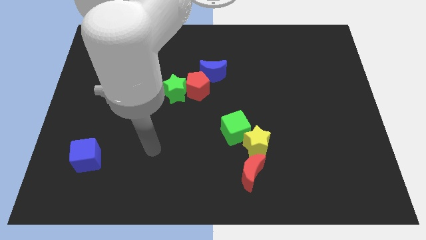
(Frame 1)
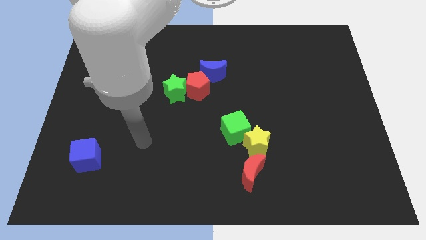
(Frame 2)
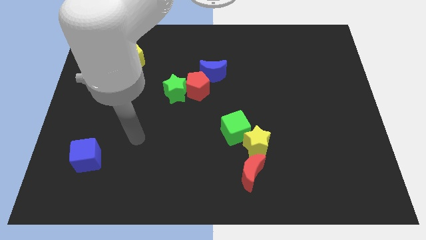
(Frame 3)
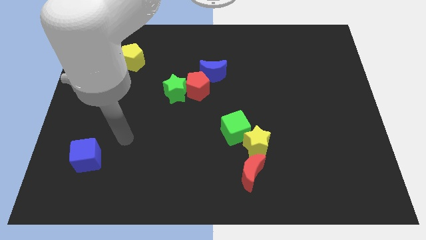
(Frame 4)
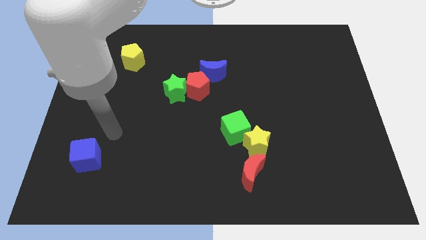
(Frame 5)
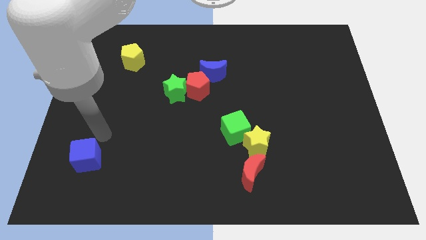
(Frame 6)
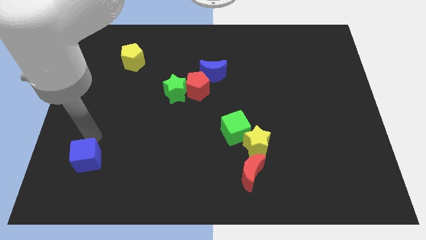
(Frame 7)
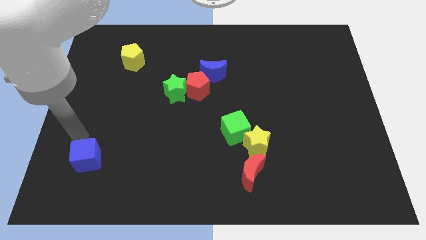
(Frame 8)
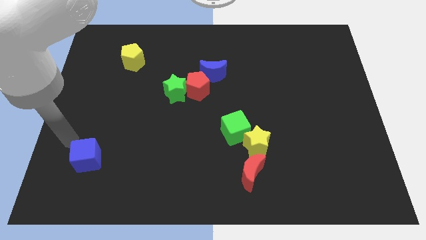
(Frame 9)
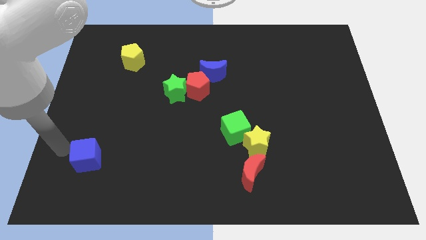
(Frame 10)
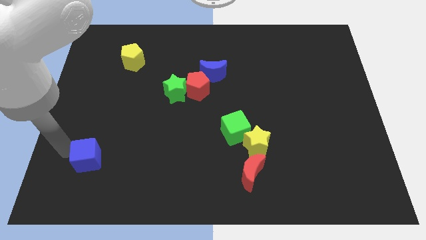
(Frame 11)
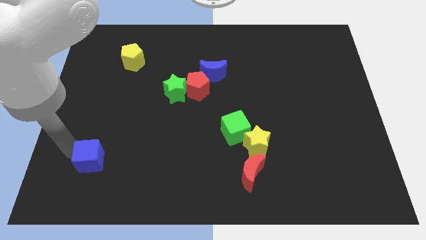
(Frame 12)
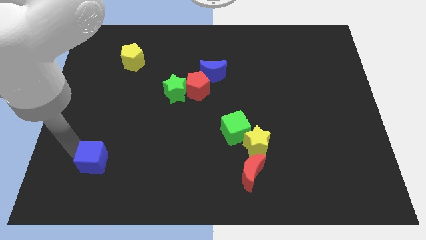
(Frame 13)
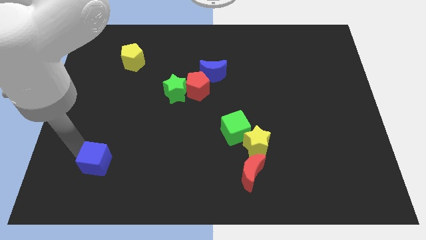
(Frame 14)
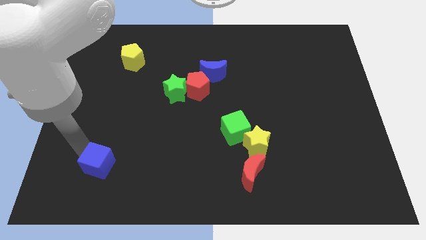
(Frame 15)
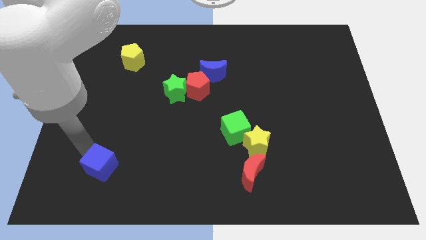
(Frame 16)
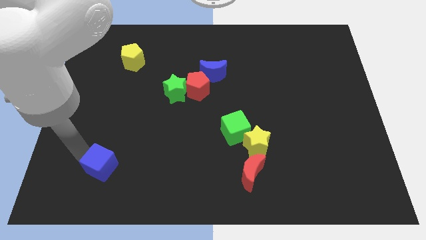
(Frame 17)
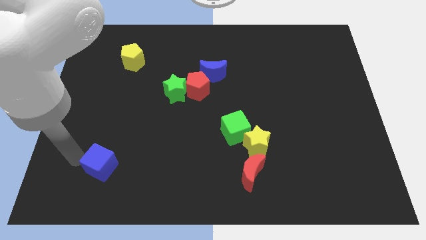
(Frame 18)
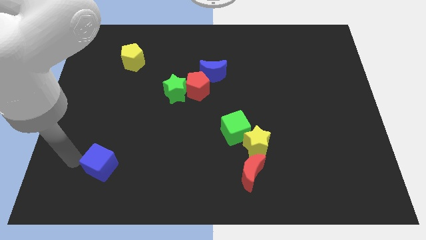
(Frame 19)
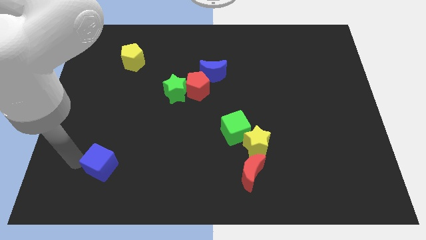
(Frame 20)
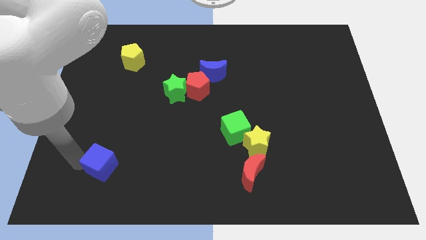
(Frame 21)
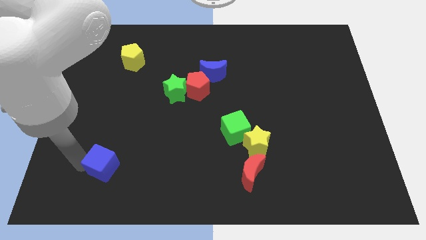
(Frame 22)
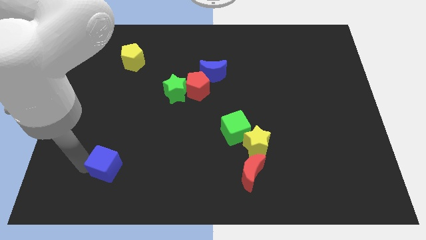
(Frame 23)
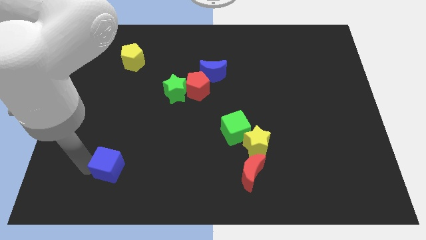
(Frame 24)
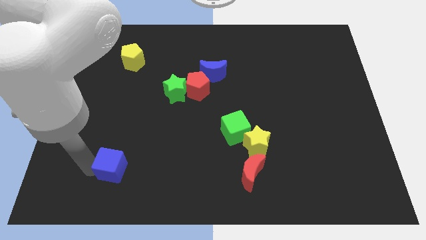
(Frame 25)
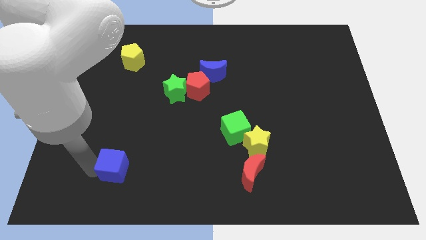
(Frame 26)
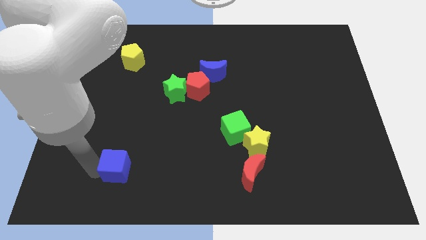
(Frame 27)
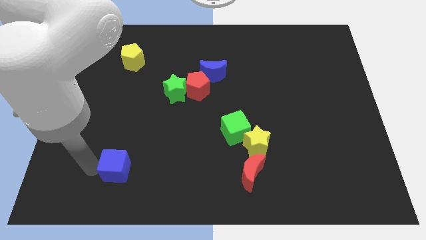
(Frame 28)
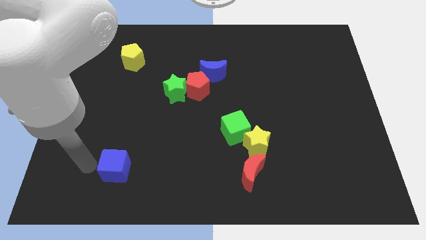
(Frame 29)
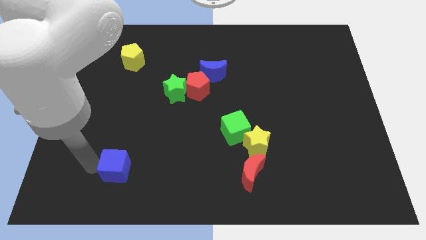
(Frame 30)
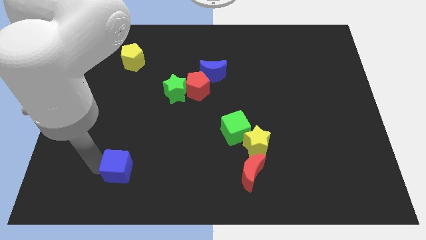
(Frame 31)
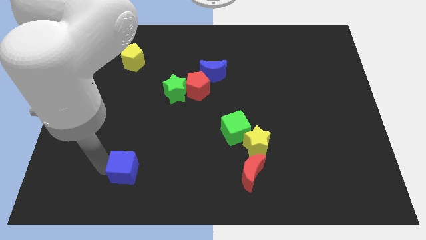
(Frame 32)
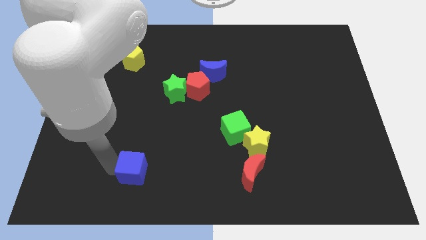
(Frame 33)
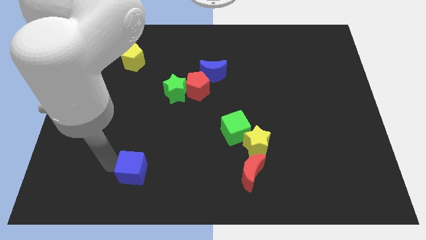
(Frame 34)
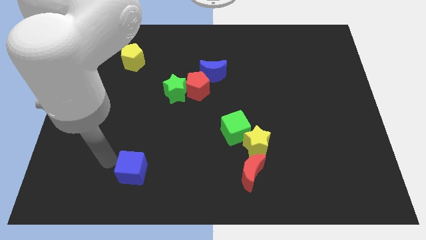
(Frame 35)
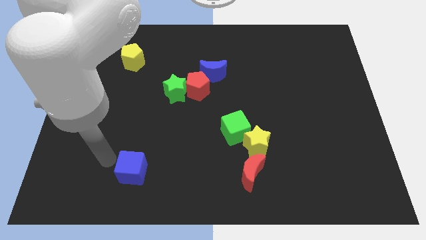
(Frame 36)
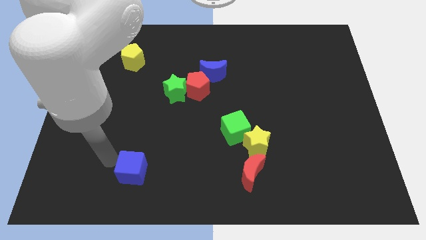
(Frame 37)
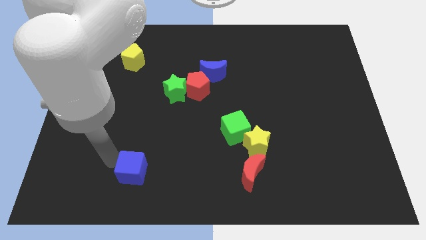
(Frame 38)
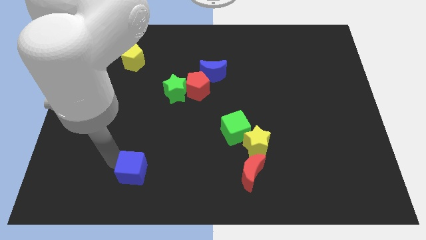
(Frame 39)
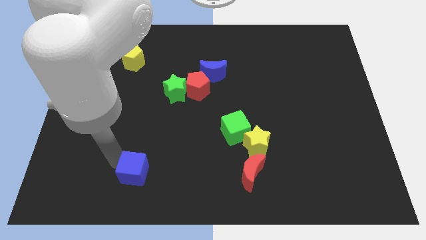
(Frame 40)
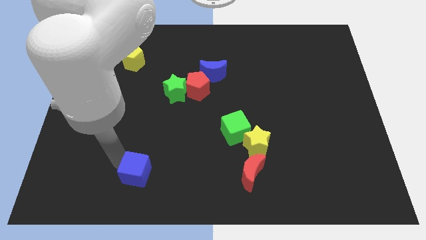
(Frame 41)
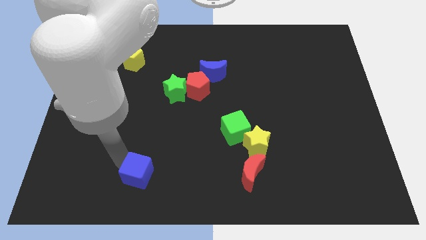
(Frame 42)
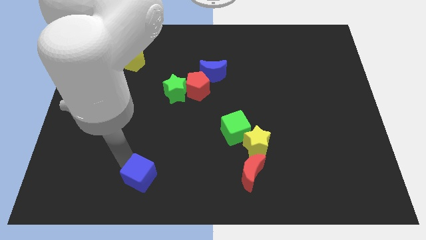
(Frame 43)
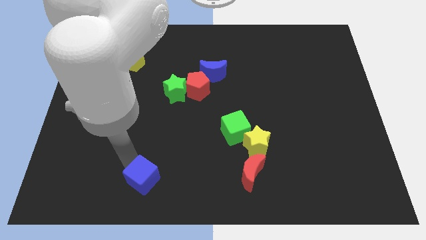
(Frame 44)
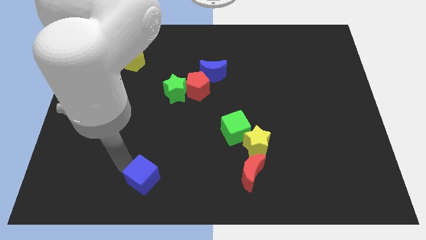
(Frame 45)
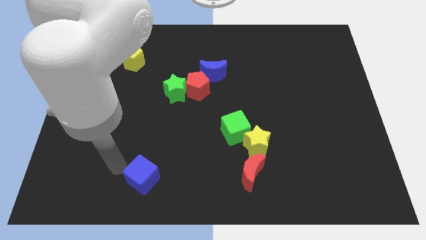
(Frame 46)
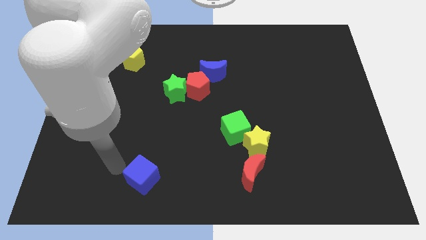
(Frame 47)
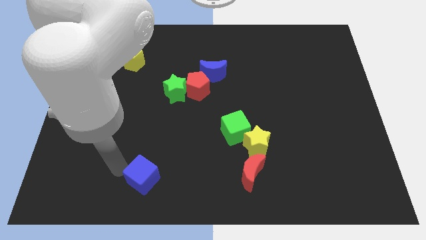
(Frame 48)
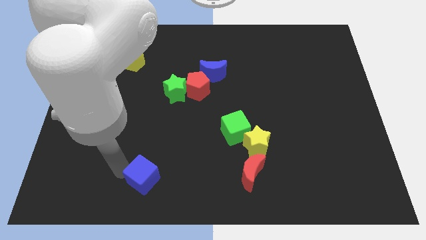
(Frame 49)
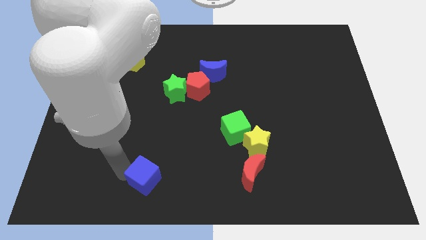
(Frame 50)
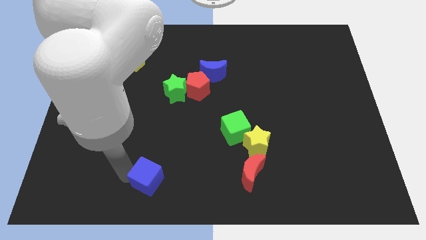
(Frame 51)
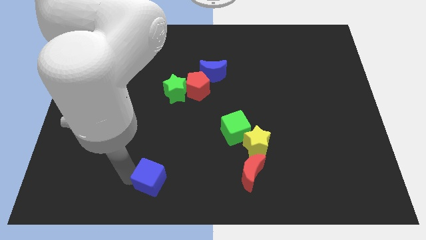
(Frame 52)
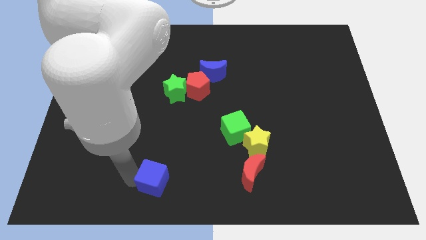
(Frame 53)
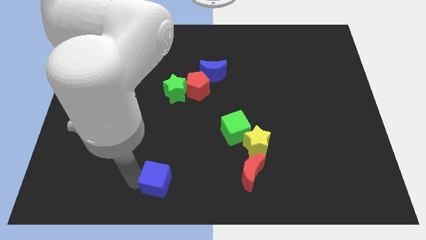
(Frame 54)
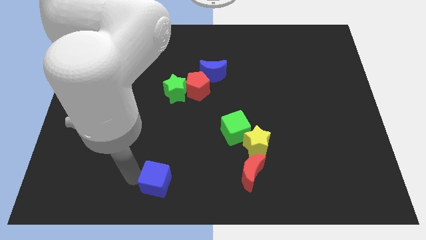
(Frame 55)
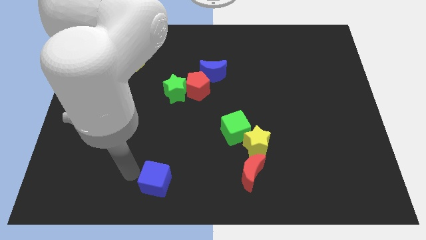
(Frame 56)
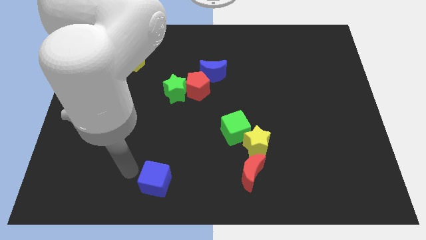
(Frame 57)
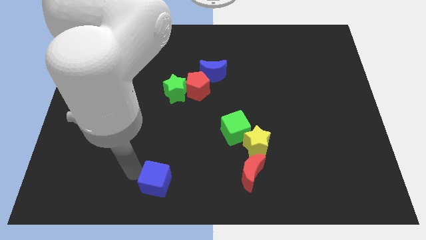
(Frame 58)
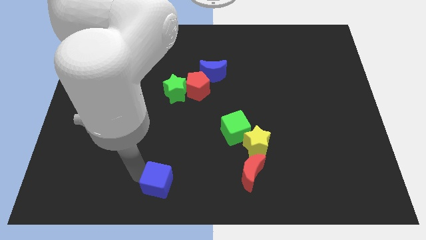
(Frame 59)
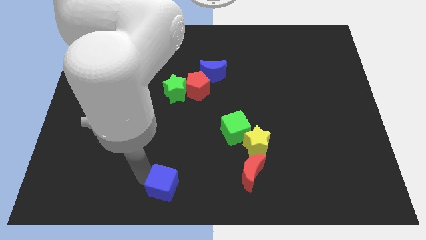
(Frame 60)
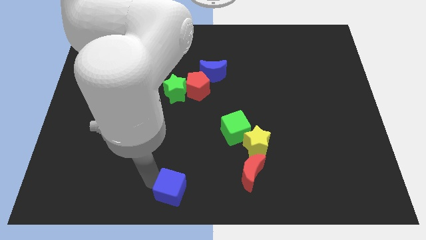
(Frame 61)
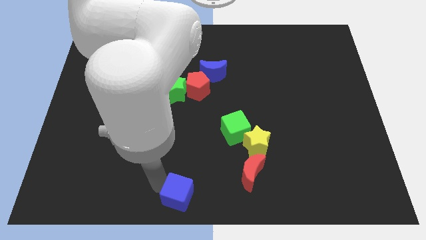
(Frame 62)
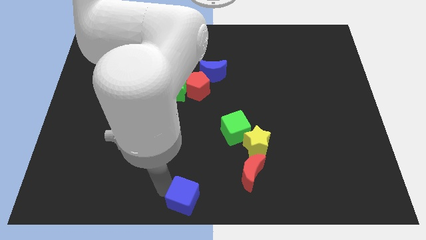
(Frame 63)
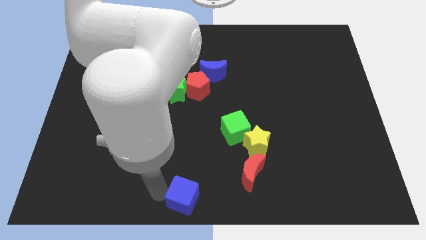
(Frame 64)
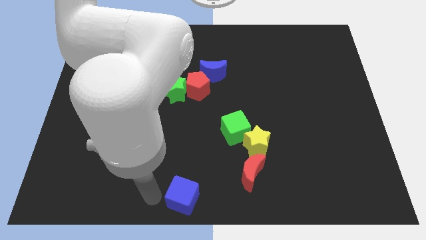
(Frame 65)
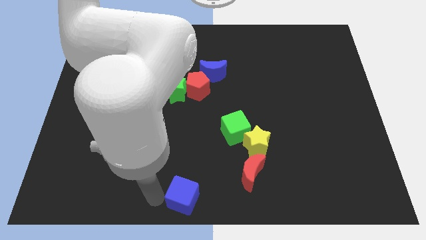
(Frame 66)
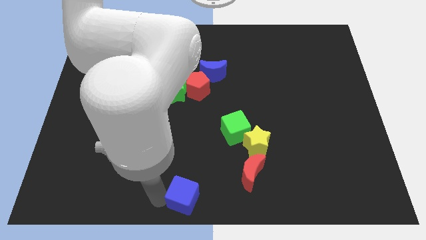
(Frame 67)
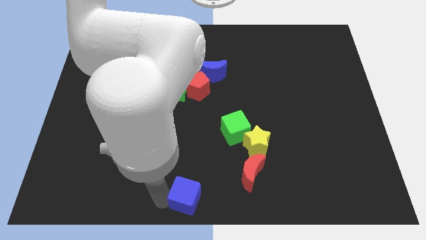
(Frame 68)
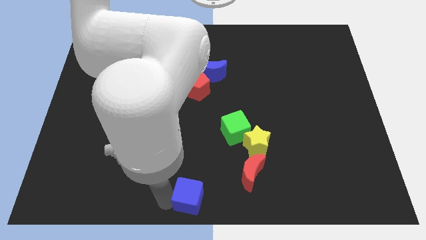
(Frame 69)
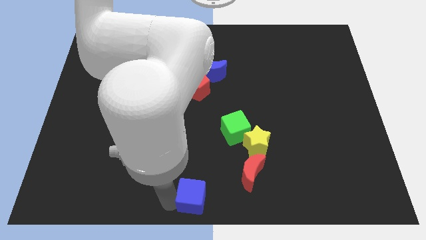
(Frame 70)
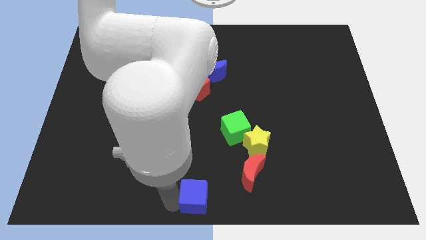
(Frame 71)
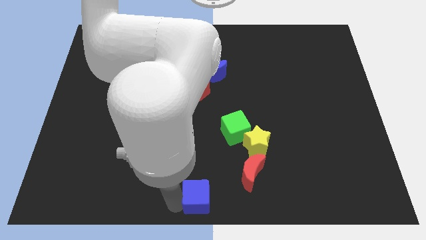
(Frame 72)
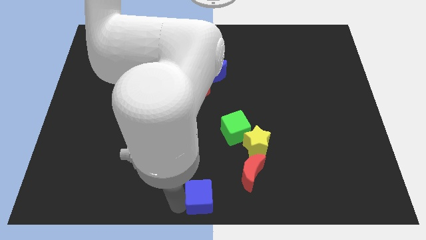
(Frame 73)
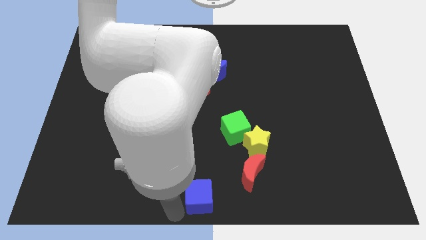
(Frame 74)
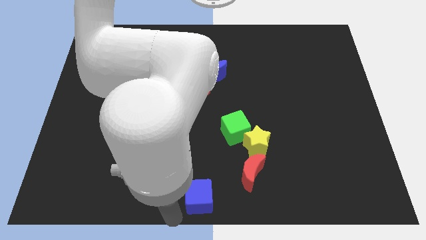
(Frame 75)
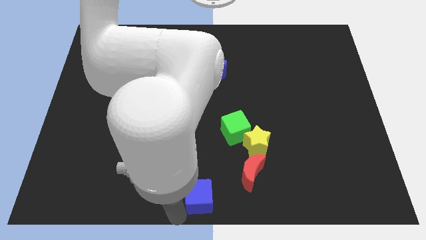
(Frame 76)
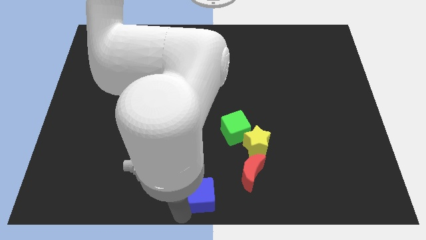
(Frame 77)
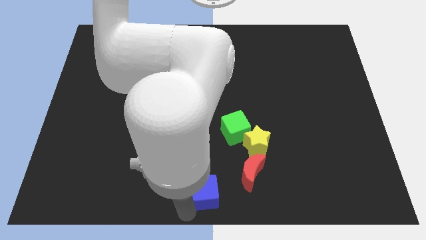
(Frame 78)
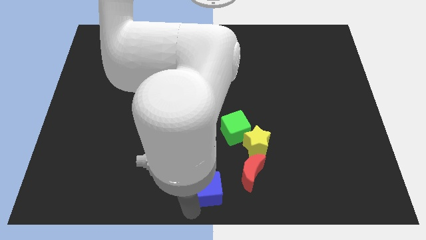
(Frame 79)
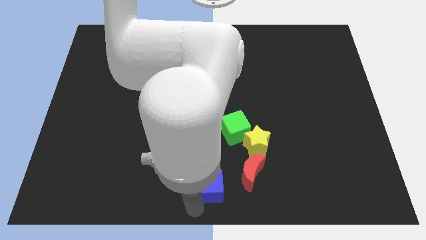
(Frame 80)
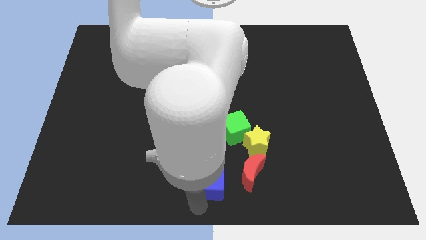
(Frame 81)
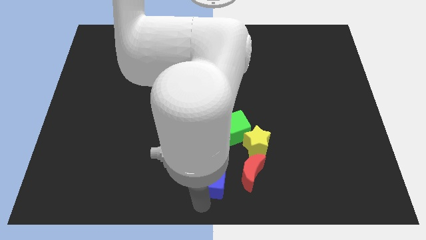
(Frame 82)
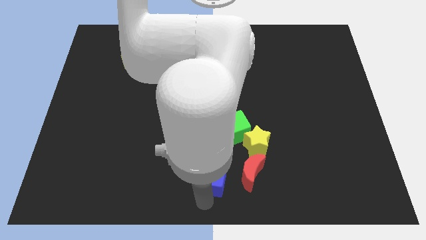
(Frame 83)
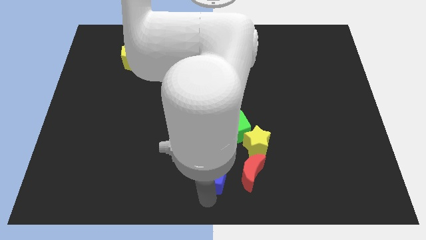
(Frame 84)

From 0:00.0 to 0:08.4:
push the blue cube below the green cube
